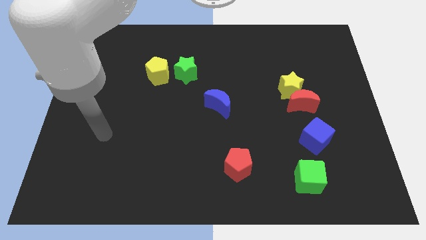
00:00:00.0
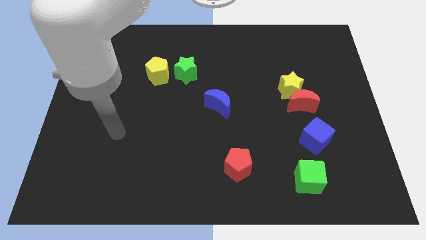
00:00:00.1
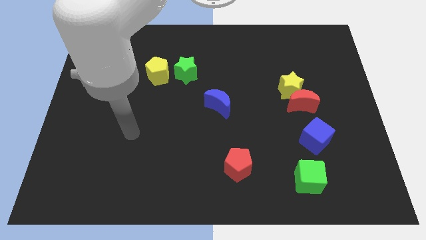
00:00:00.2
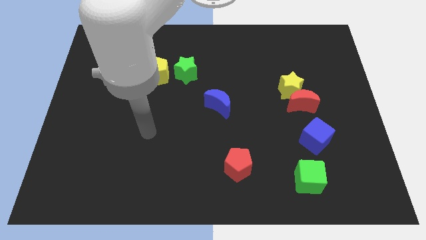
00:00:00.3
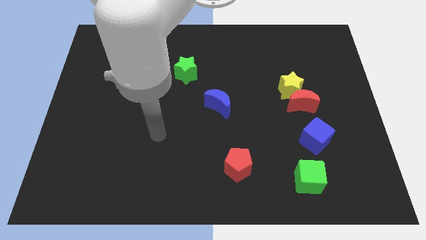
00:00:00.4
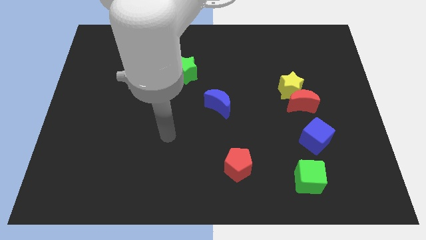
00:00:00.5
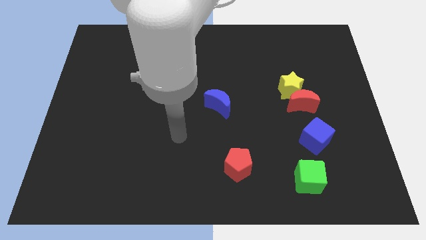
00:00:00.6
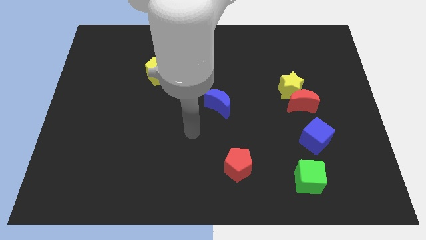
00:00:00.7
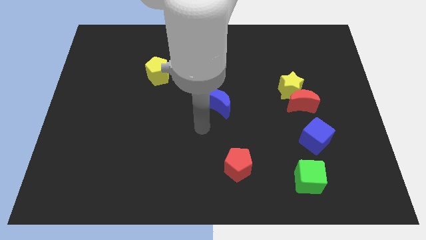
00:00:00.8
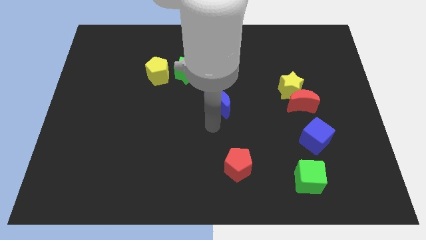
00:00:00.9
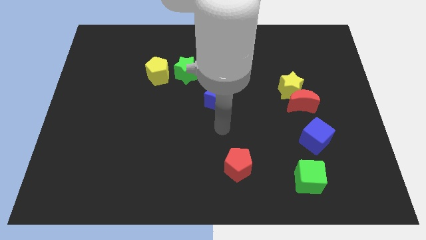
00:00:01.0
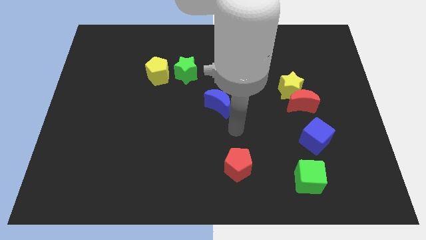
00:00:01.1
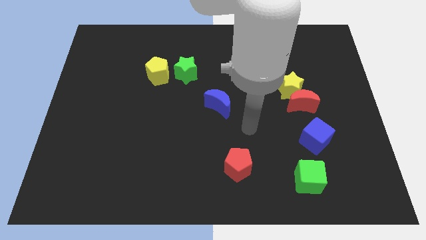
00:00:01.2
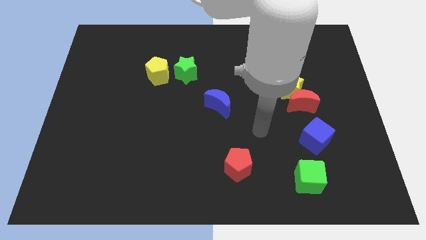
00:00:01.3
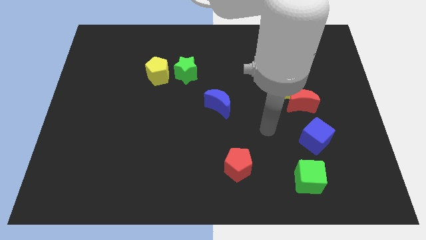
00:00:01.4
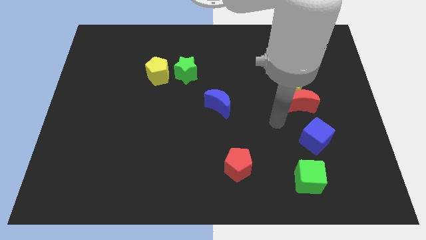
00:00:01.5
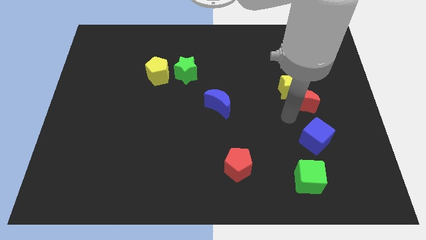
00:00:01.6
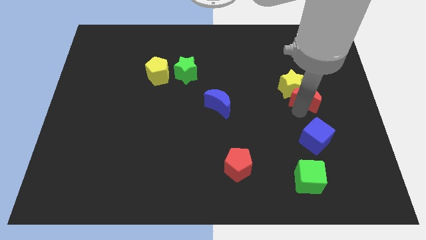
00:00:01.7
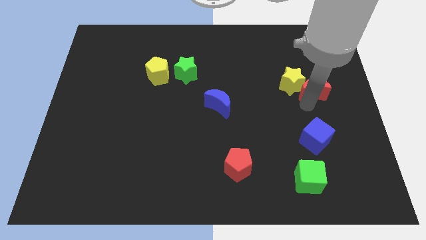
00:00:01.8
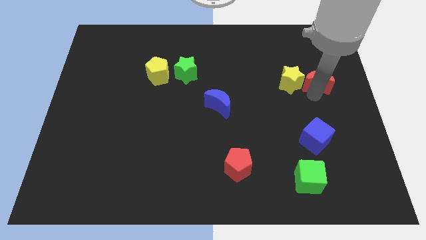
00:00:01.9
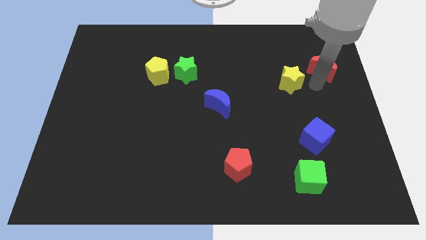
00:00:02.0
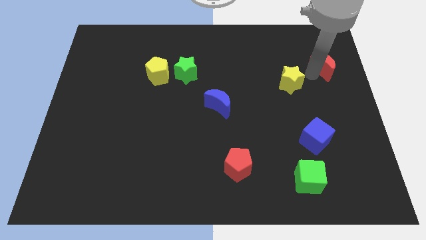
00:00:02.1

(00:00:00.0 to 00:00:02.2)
move the yellow star away from the red moon

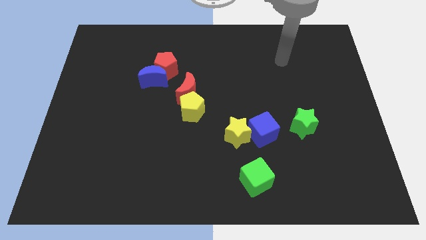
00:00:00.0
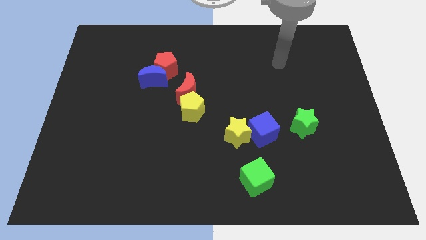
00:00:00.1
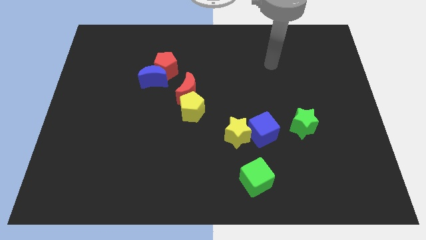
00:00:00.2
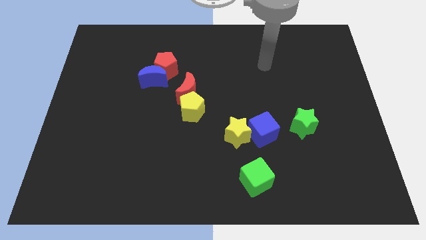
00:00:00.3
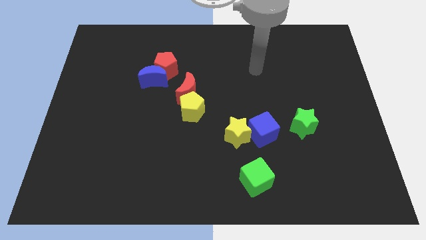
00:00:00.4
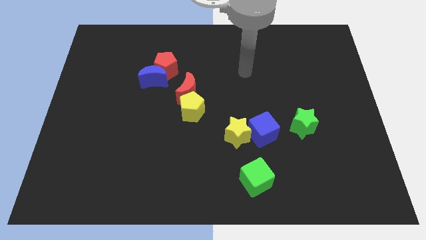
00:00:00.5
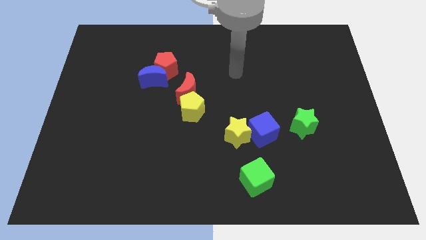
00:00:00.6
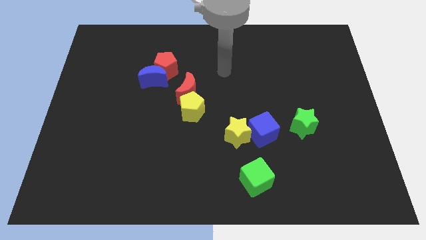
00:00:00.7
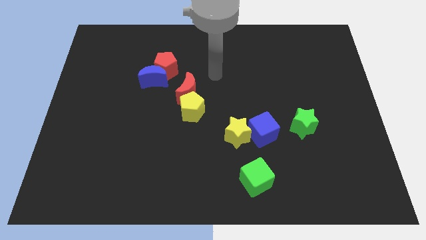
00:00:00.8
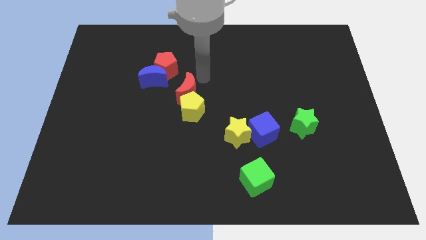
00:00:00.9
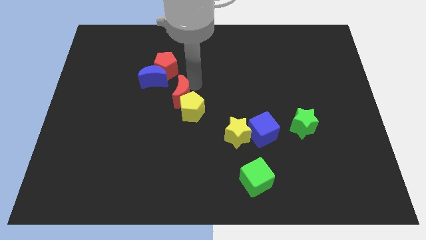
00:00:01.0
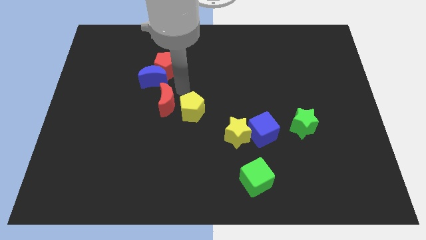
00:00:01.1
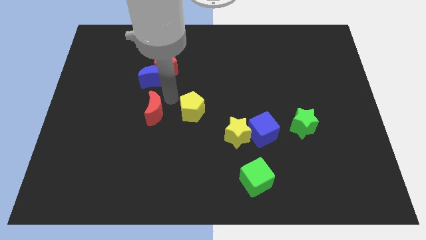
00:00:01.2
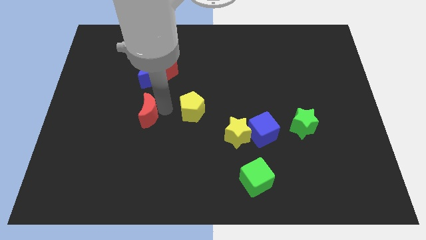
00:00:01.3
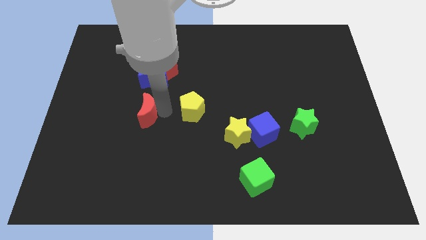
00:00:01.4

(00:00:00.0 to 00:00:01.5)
move the yellow pentagon away from the red moon

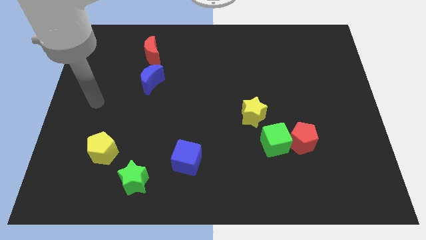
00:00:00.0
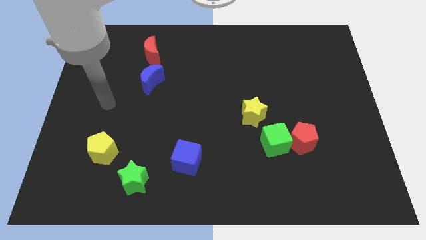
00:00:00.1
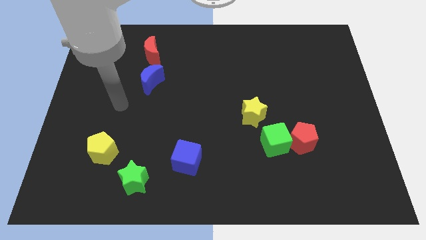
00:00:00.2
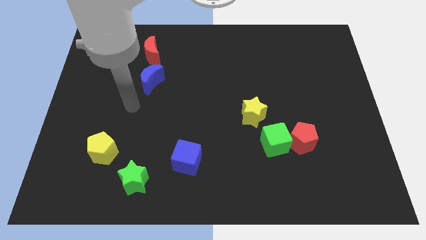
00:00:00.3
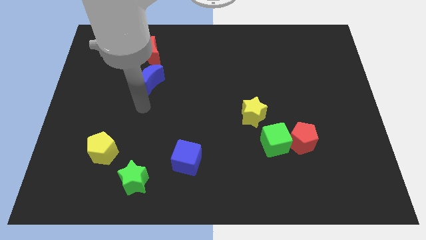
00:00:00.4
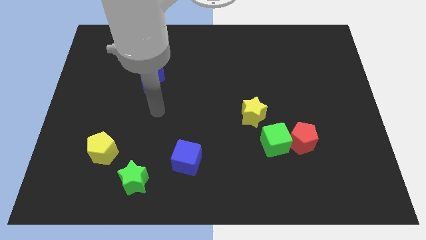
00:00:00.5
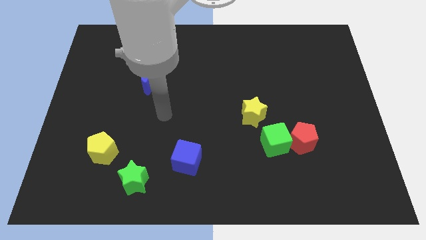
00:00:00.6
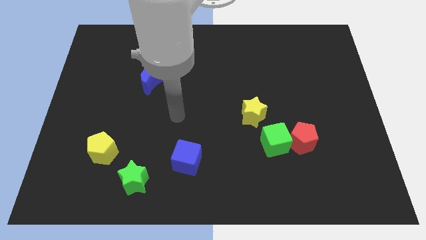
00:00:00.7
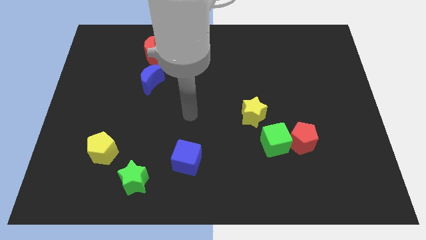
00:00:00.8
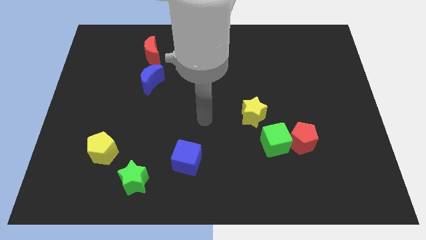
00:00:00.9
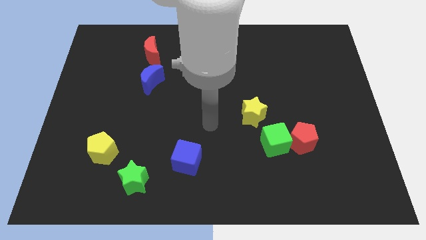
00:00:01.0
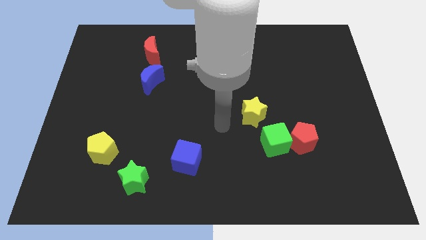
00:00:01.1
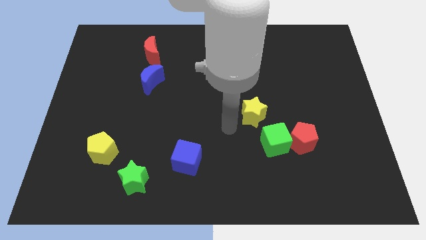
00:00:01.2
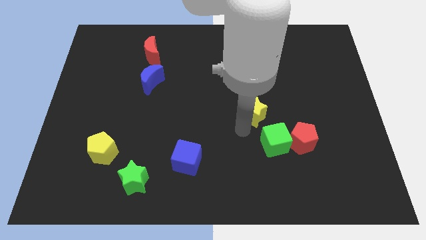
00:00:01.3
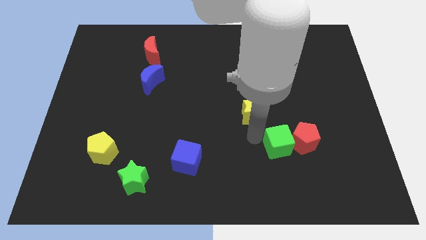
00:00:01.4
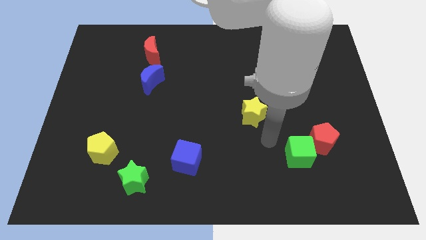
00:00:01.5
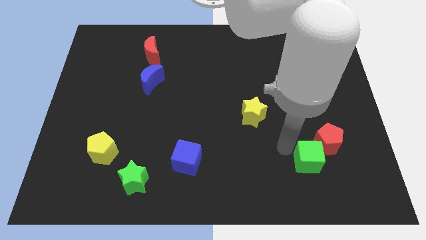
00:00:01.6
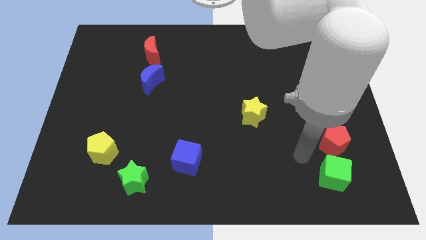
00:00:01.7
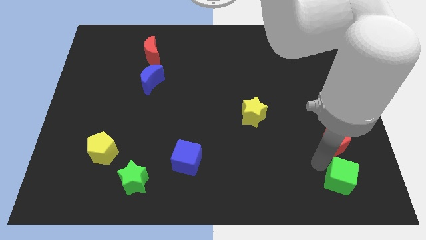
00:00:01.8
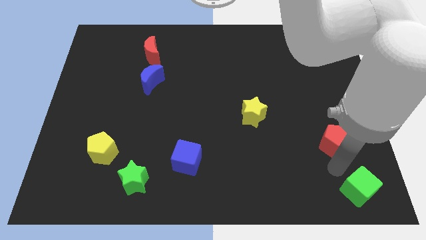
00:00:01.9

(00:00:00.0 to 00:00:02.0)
separate the red pentagon from the green cube

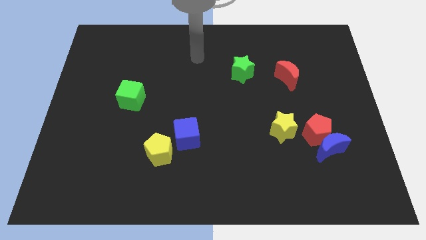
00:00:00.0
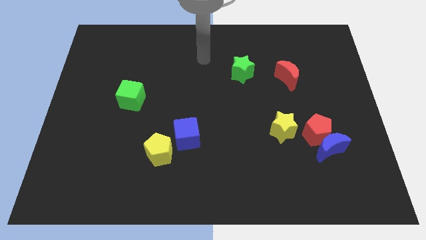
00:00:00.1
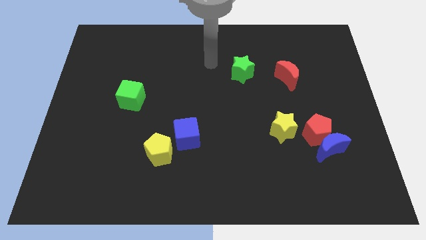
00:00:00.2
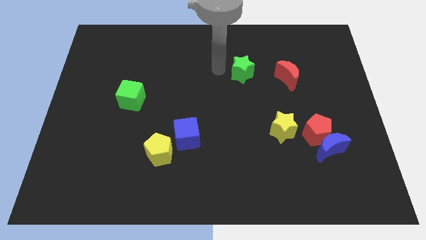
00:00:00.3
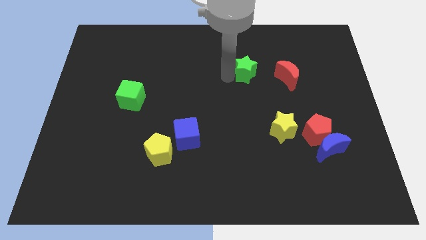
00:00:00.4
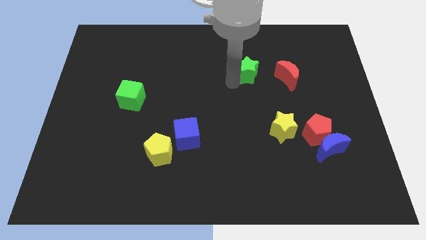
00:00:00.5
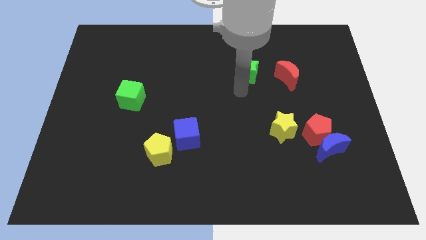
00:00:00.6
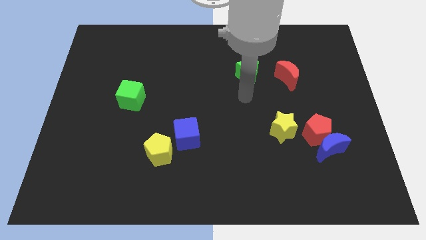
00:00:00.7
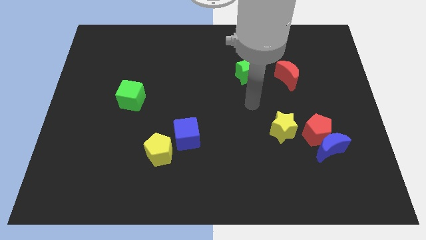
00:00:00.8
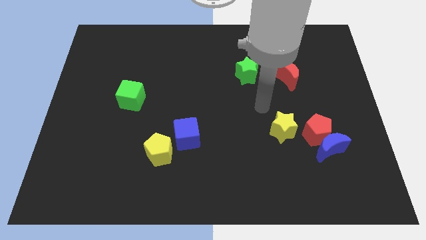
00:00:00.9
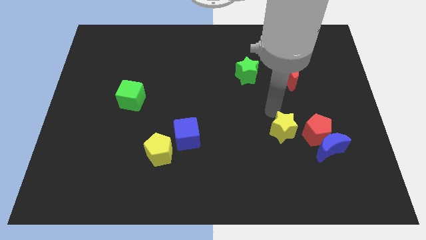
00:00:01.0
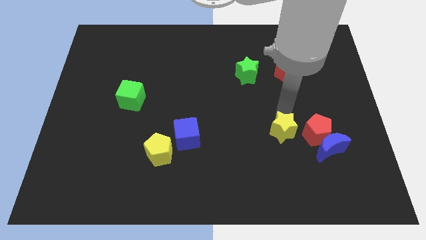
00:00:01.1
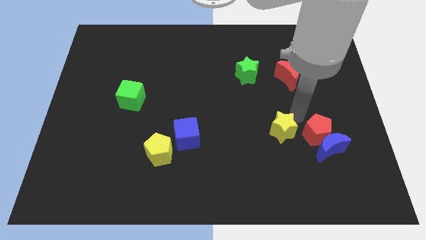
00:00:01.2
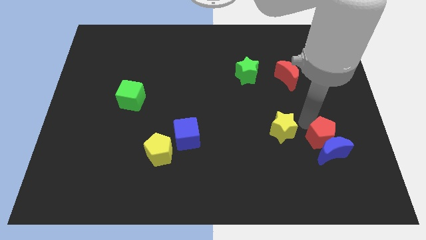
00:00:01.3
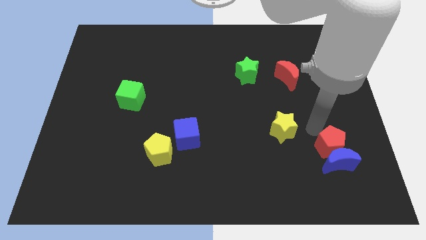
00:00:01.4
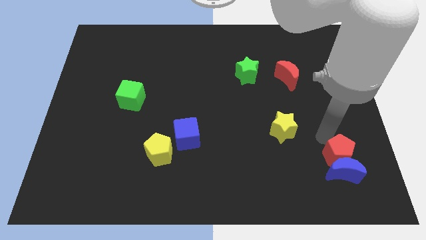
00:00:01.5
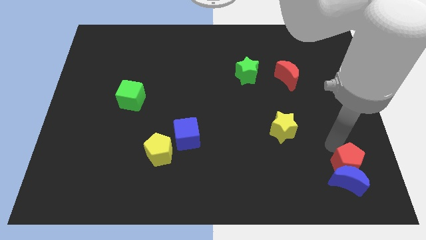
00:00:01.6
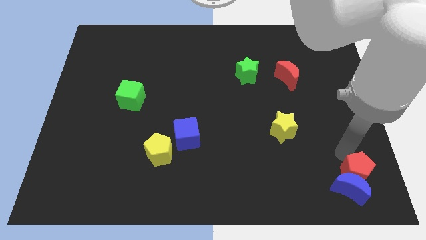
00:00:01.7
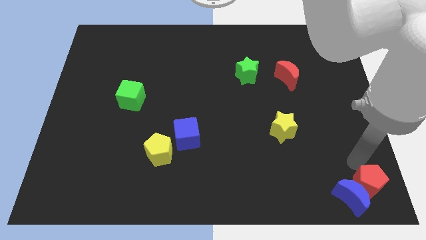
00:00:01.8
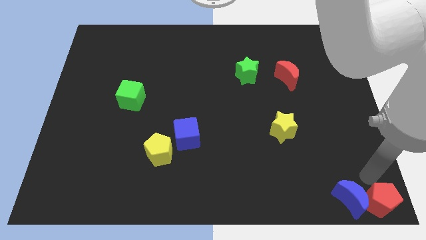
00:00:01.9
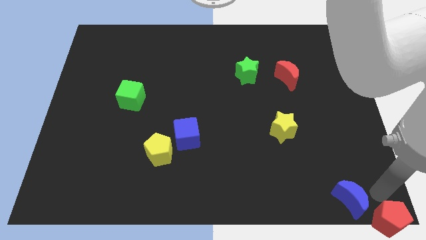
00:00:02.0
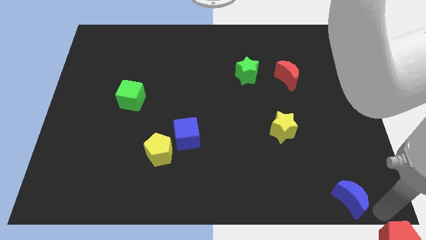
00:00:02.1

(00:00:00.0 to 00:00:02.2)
move the blue moon away from the red pentagon

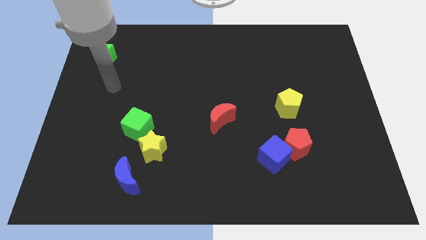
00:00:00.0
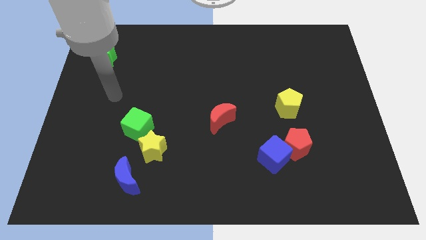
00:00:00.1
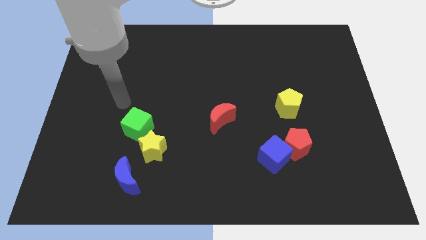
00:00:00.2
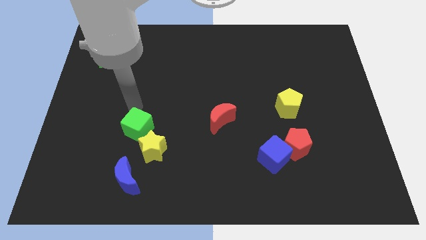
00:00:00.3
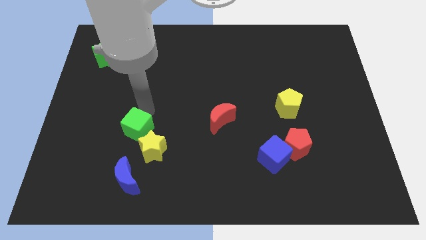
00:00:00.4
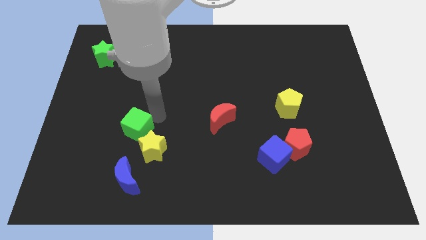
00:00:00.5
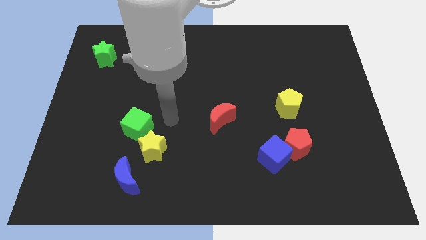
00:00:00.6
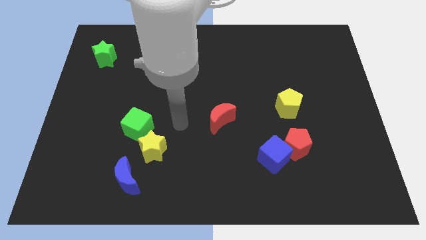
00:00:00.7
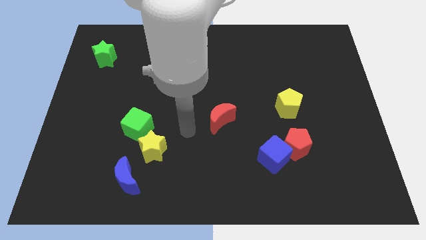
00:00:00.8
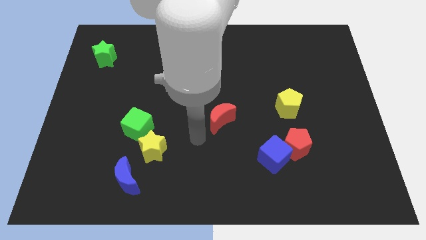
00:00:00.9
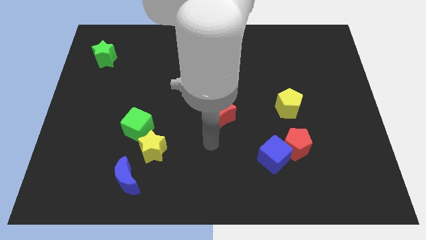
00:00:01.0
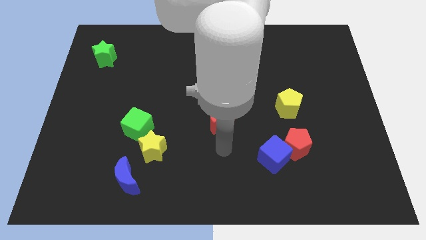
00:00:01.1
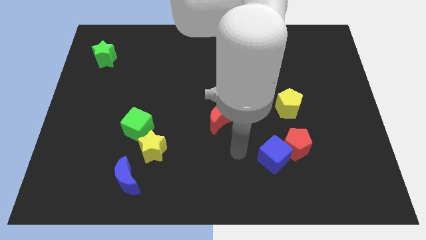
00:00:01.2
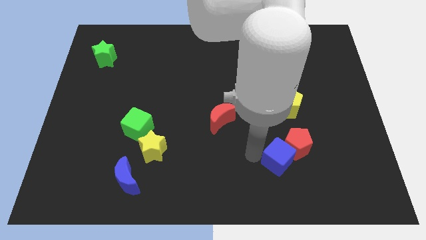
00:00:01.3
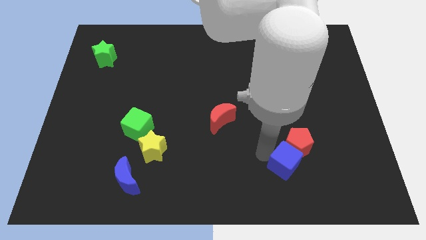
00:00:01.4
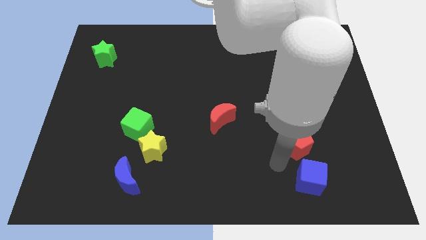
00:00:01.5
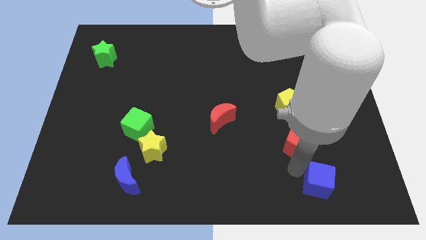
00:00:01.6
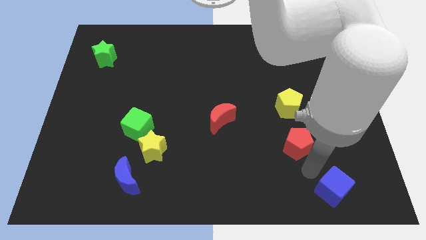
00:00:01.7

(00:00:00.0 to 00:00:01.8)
pull the red pentagon apart from the blue cube
